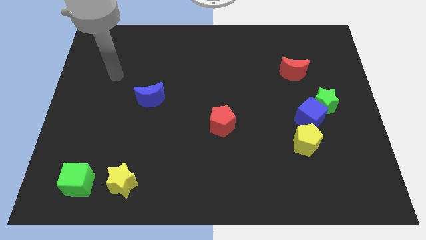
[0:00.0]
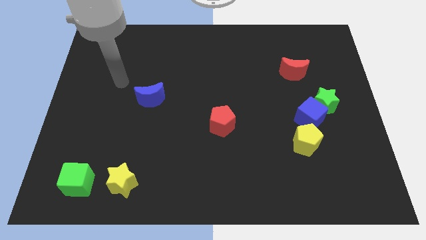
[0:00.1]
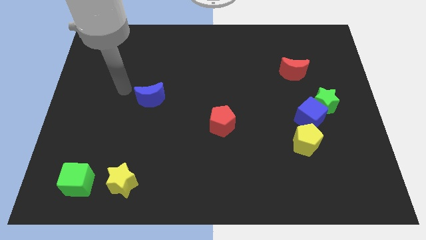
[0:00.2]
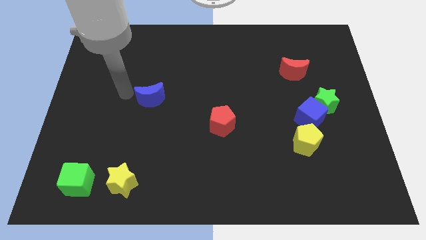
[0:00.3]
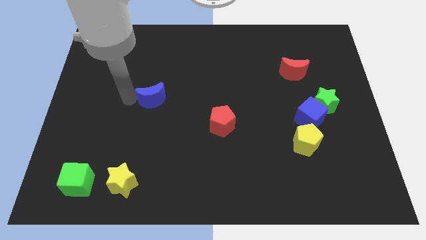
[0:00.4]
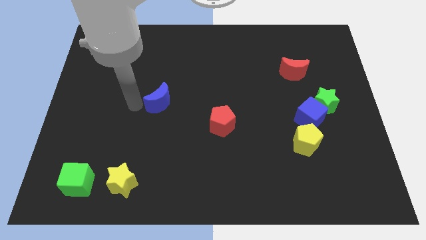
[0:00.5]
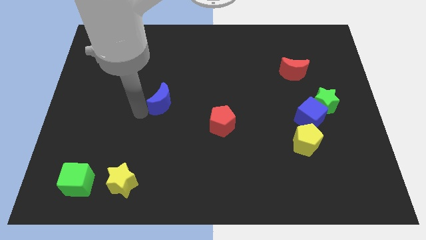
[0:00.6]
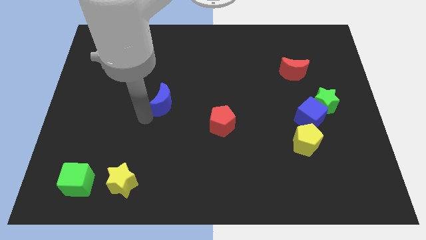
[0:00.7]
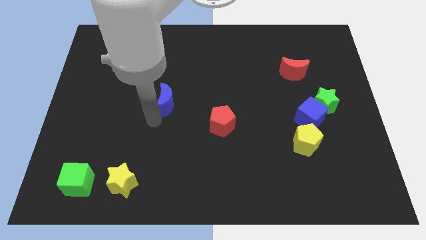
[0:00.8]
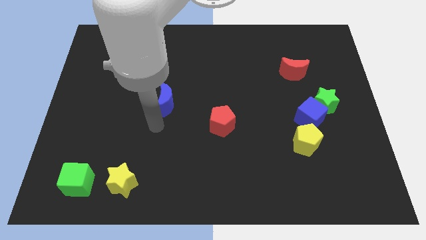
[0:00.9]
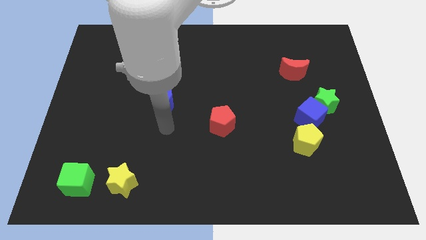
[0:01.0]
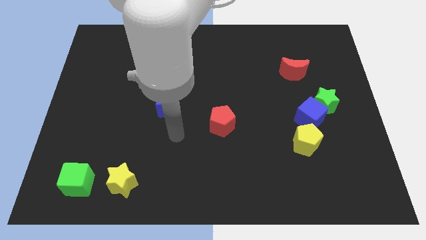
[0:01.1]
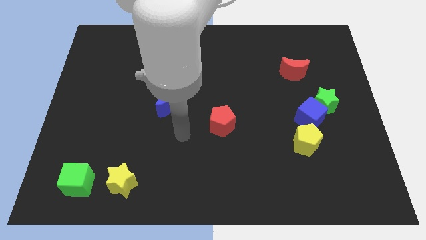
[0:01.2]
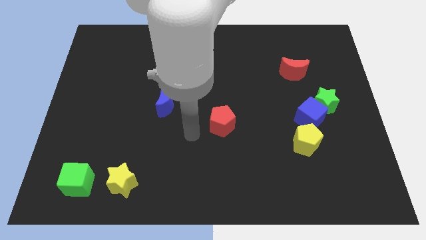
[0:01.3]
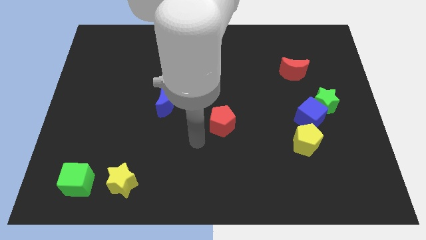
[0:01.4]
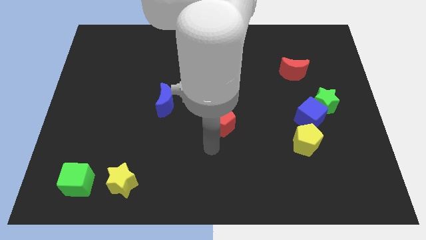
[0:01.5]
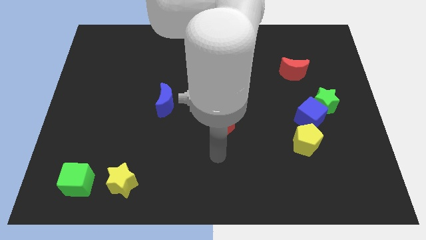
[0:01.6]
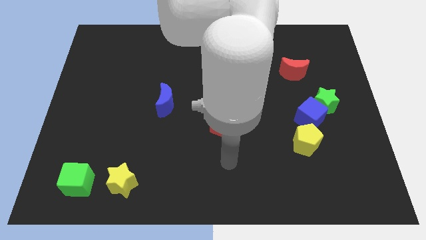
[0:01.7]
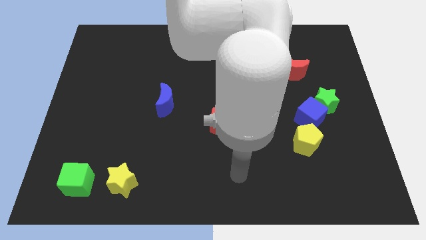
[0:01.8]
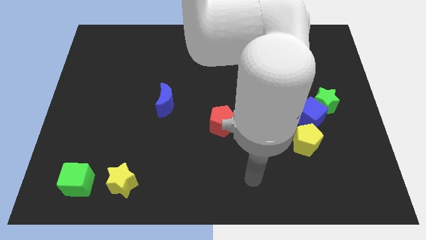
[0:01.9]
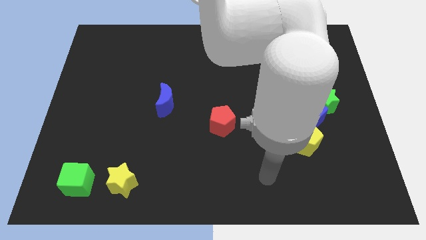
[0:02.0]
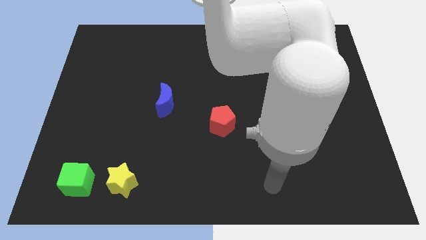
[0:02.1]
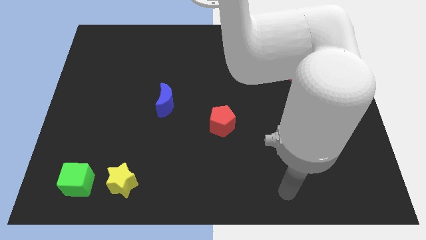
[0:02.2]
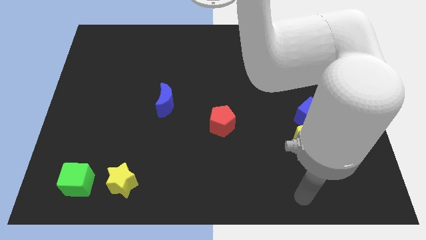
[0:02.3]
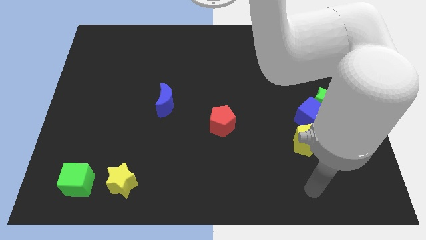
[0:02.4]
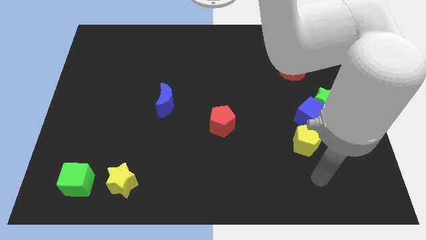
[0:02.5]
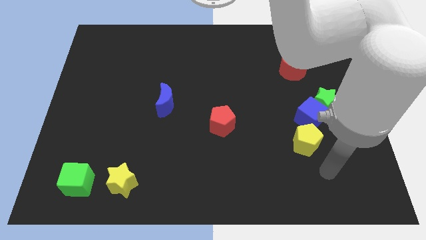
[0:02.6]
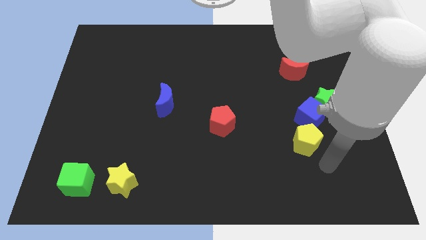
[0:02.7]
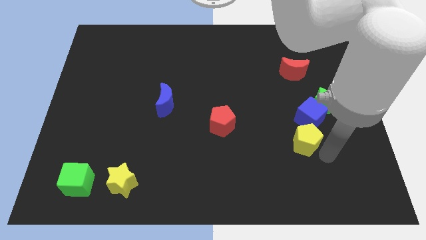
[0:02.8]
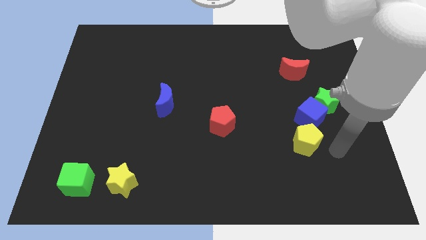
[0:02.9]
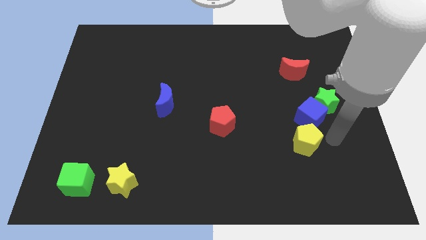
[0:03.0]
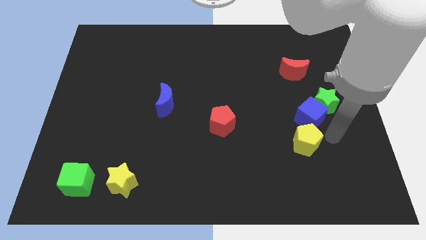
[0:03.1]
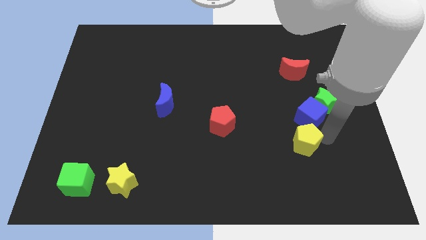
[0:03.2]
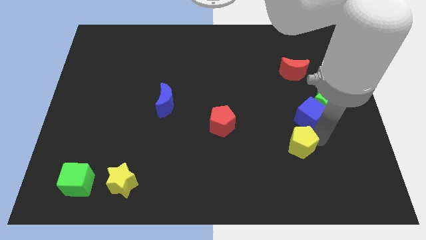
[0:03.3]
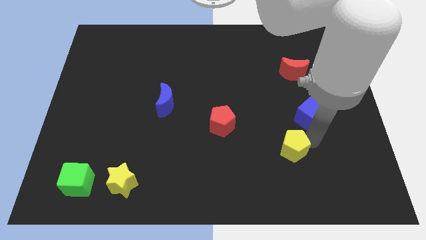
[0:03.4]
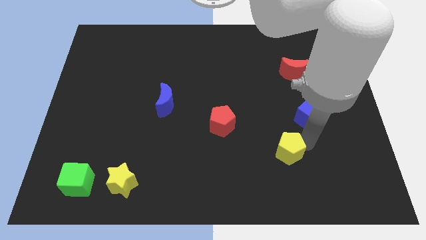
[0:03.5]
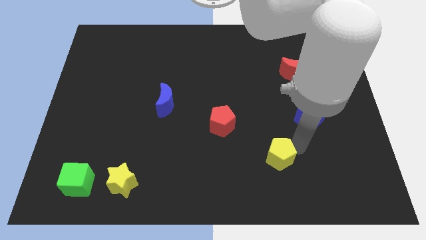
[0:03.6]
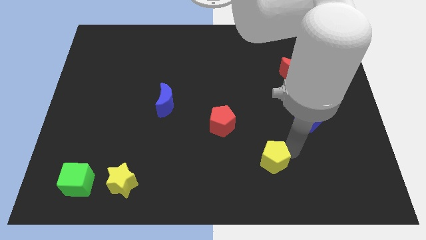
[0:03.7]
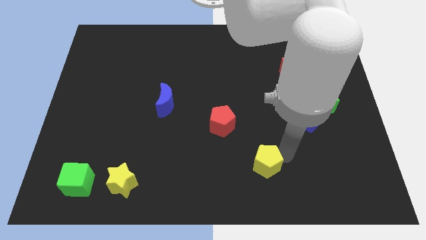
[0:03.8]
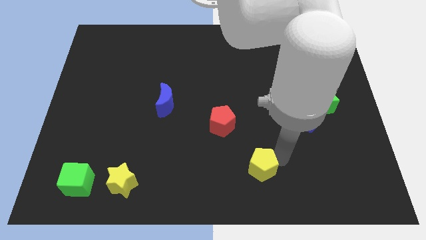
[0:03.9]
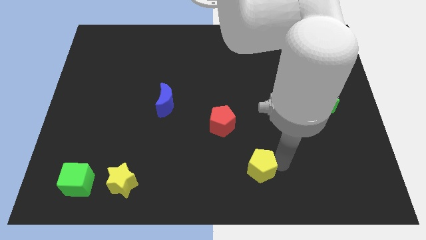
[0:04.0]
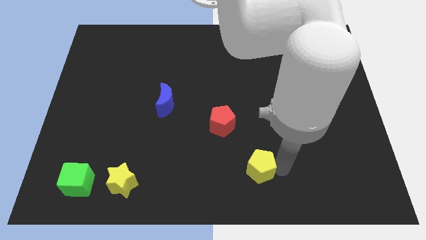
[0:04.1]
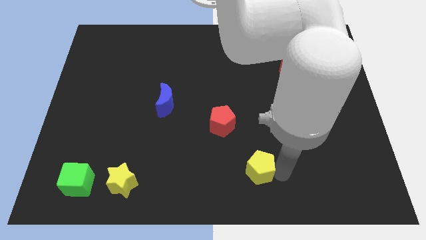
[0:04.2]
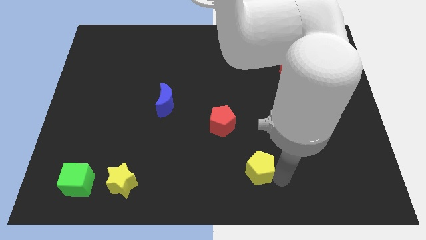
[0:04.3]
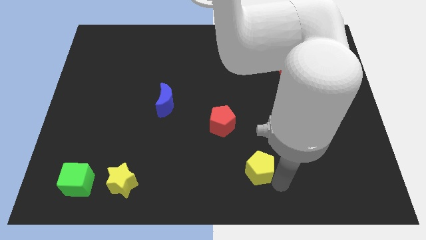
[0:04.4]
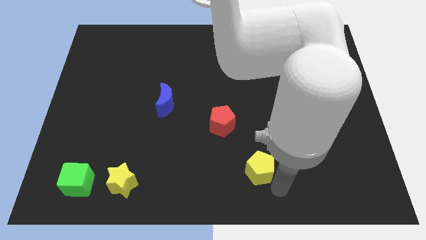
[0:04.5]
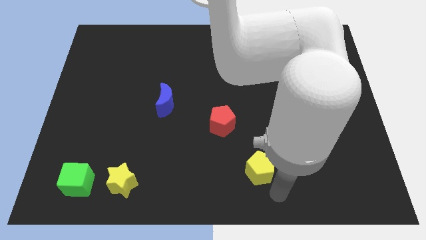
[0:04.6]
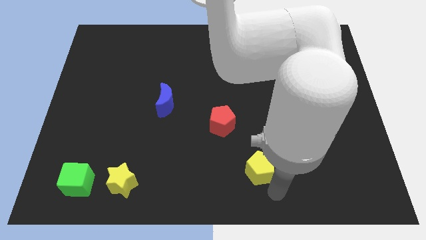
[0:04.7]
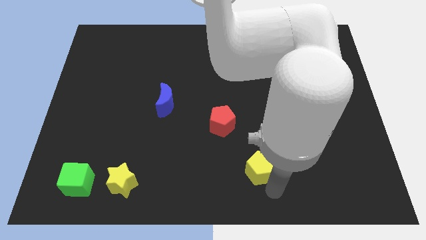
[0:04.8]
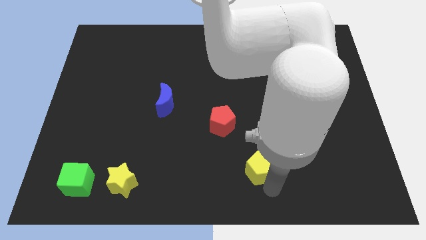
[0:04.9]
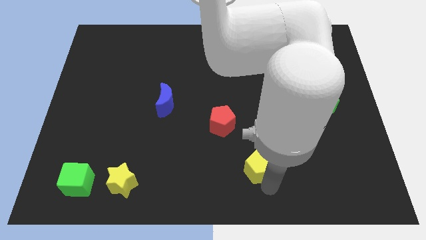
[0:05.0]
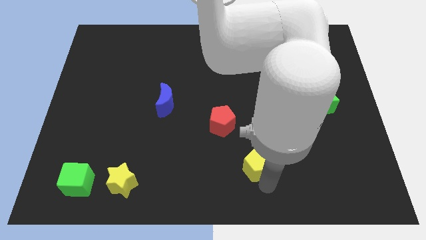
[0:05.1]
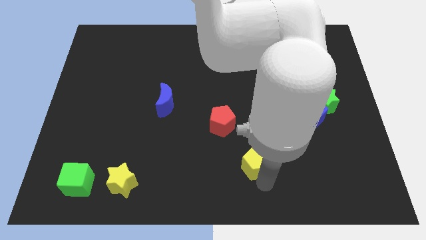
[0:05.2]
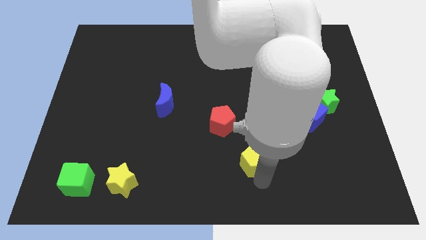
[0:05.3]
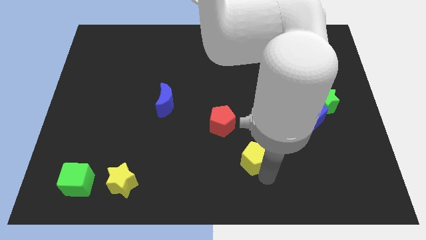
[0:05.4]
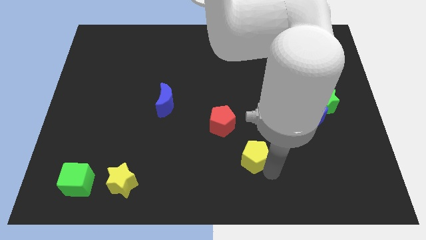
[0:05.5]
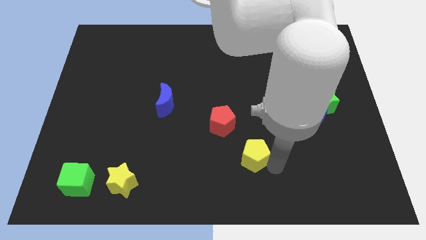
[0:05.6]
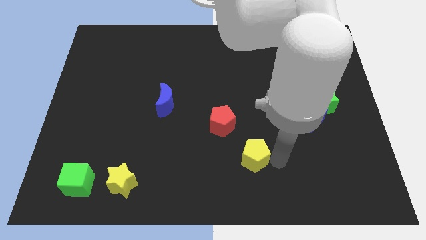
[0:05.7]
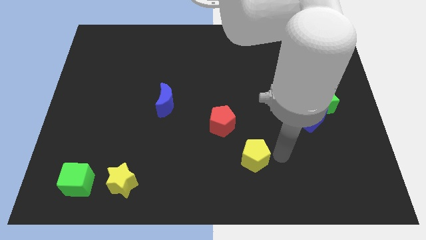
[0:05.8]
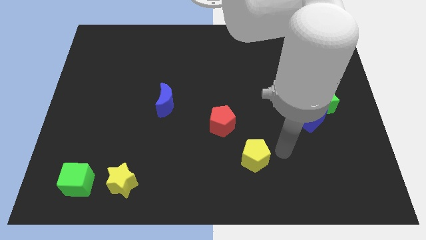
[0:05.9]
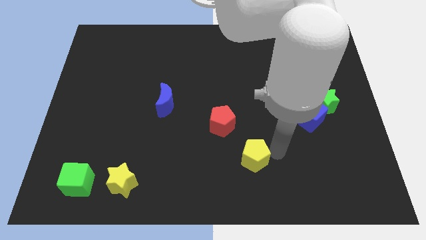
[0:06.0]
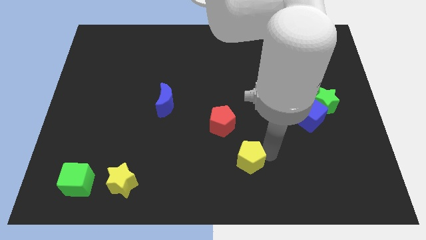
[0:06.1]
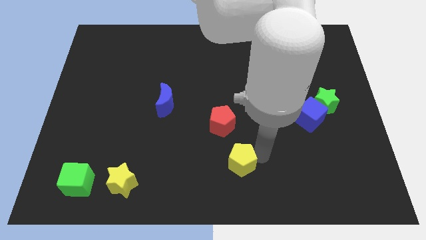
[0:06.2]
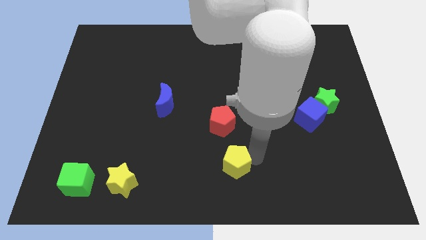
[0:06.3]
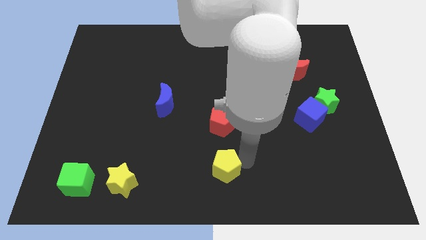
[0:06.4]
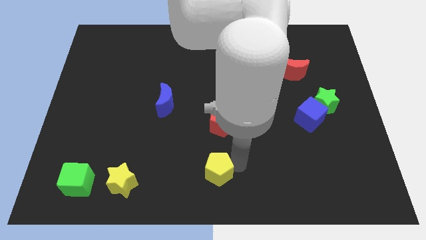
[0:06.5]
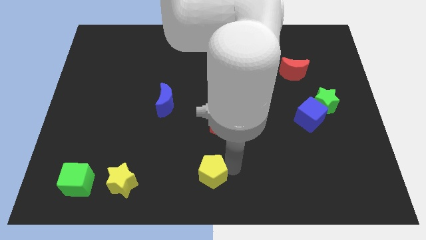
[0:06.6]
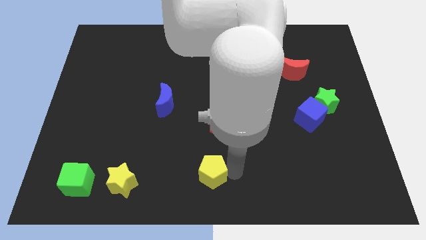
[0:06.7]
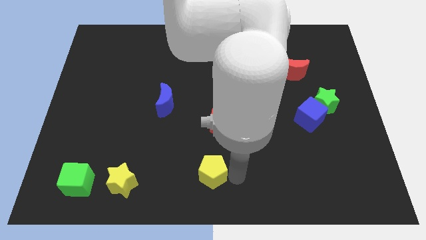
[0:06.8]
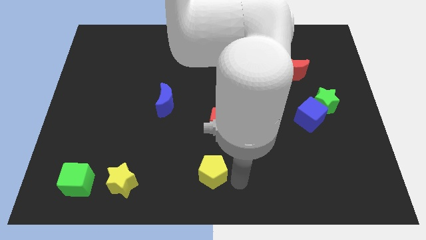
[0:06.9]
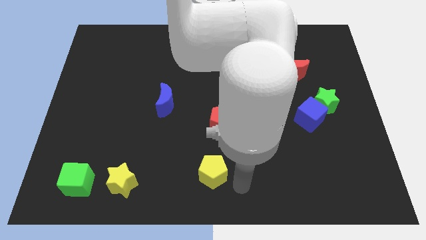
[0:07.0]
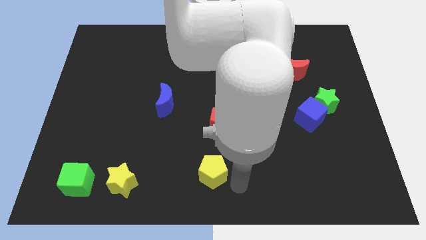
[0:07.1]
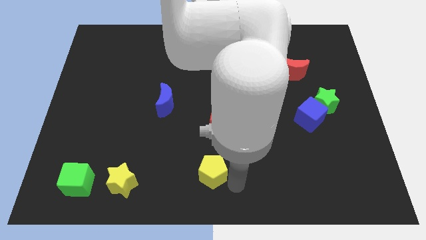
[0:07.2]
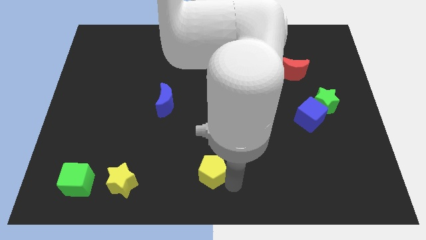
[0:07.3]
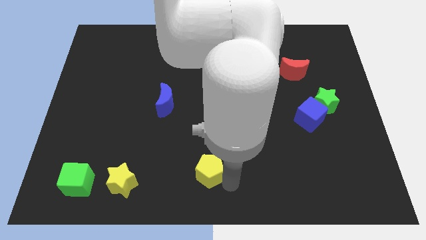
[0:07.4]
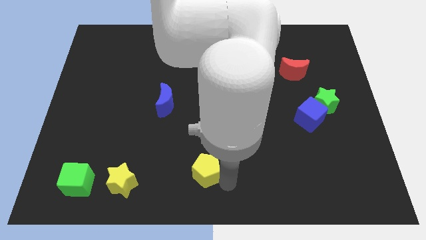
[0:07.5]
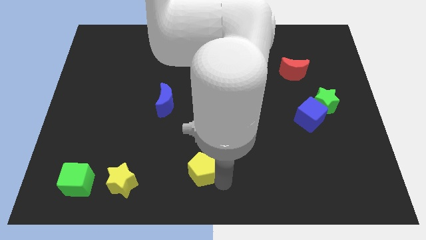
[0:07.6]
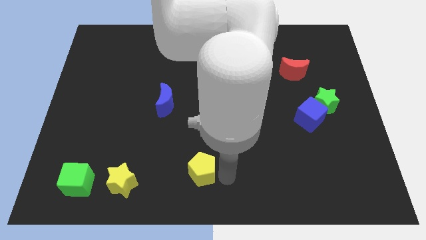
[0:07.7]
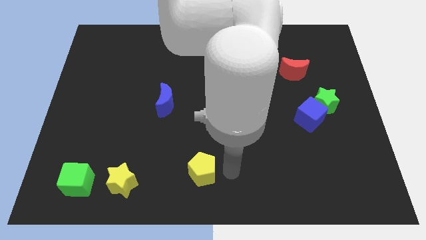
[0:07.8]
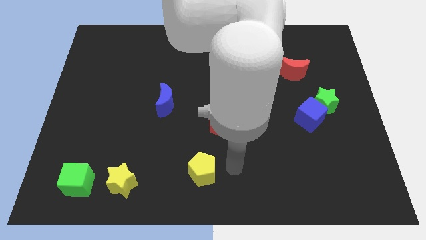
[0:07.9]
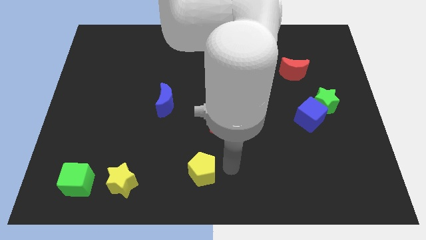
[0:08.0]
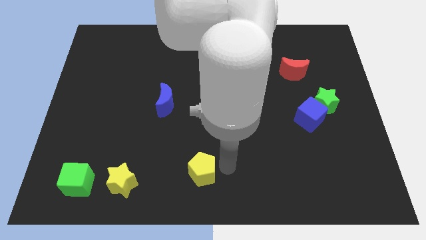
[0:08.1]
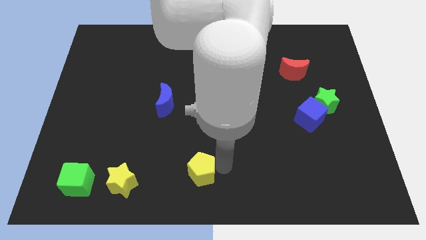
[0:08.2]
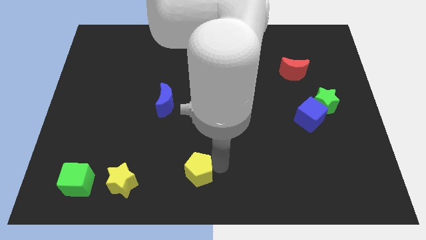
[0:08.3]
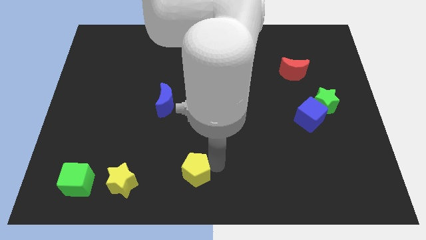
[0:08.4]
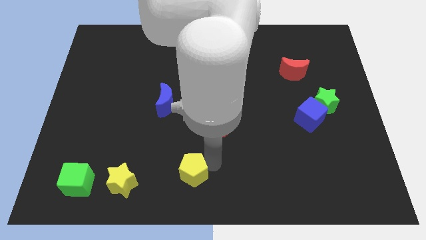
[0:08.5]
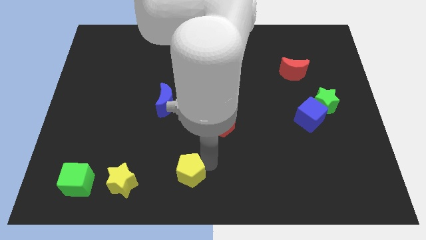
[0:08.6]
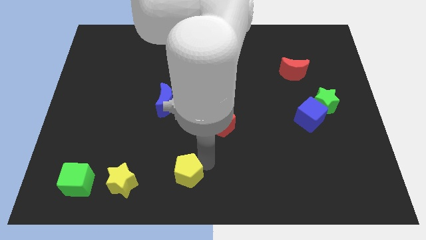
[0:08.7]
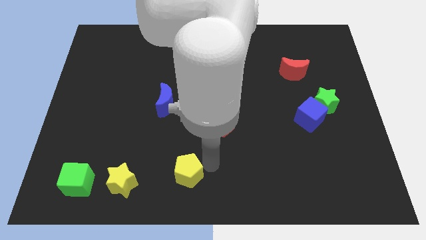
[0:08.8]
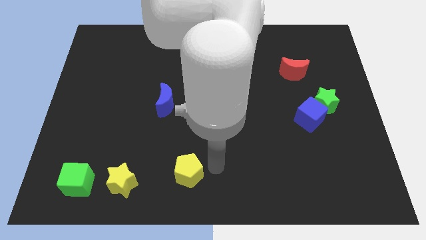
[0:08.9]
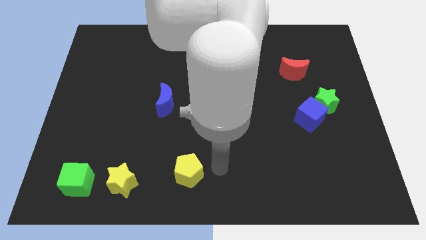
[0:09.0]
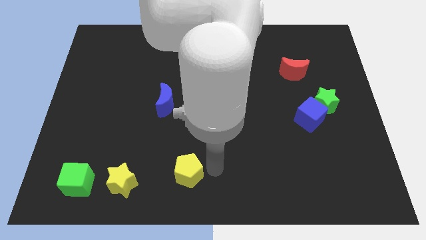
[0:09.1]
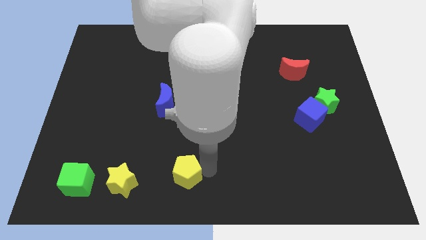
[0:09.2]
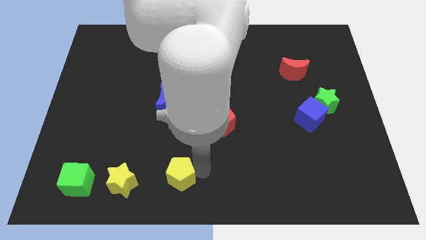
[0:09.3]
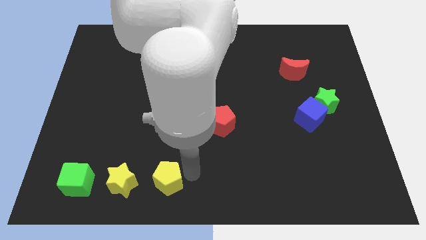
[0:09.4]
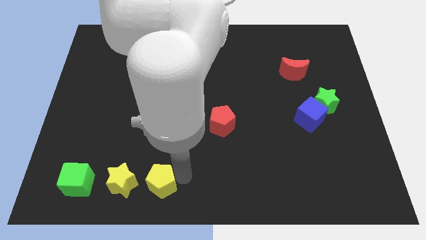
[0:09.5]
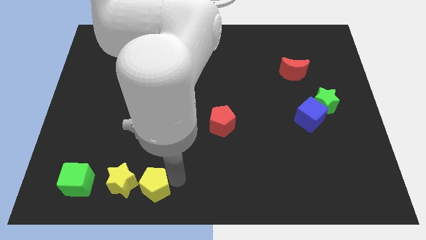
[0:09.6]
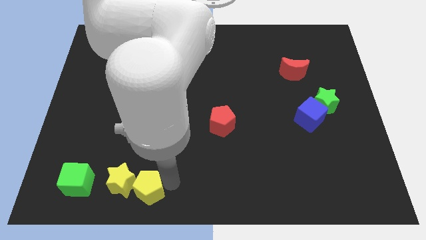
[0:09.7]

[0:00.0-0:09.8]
push the yellow pentagon to the yellow star
